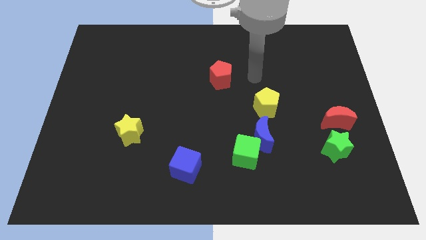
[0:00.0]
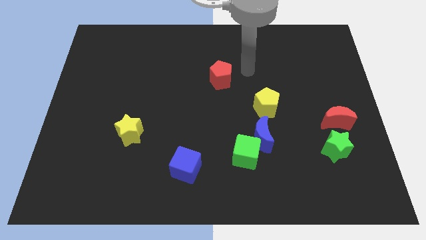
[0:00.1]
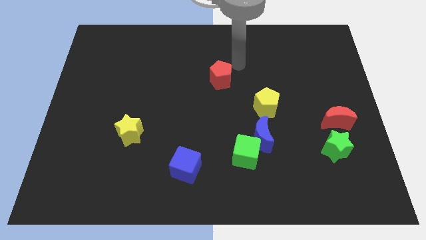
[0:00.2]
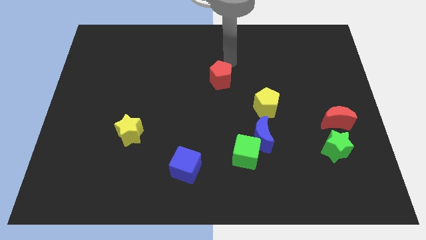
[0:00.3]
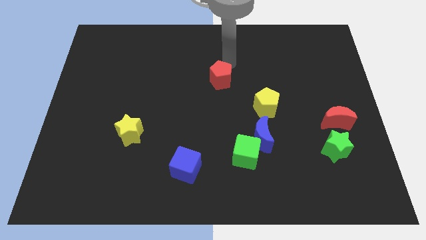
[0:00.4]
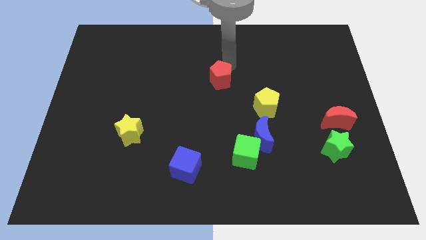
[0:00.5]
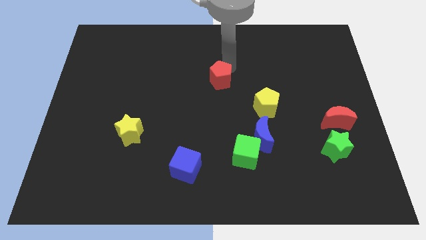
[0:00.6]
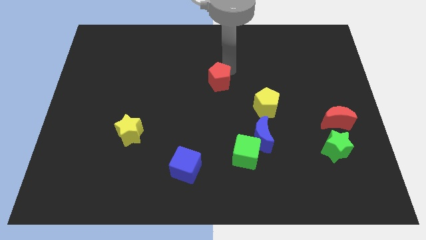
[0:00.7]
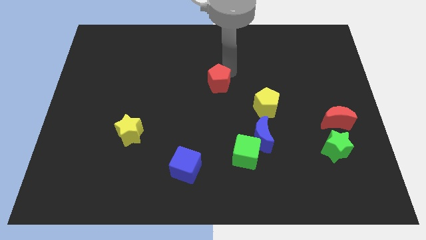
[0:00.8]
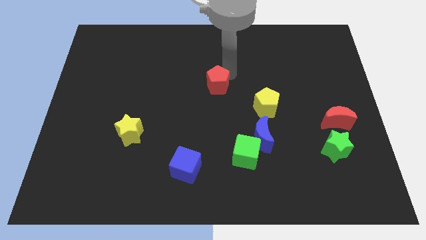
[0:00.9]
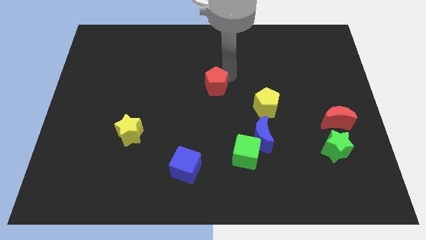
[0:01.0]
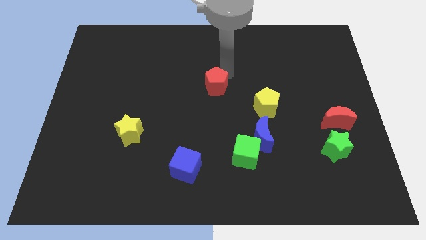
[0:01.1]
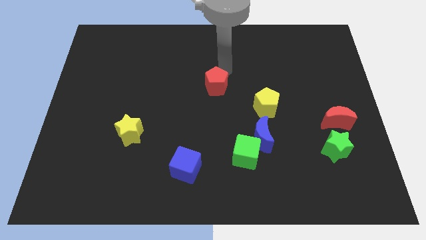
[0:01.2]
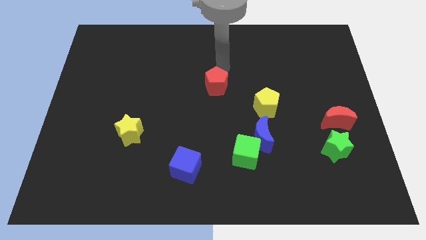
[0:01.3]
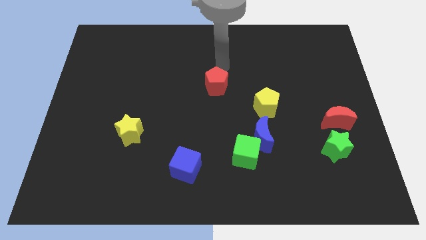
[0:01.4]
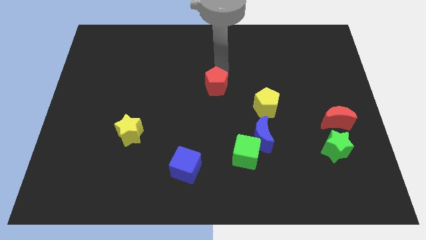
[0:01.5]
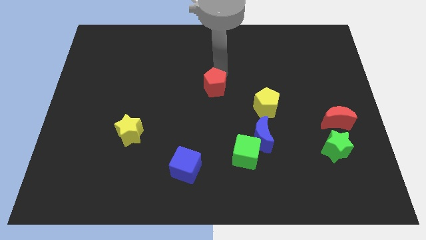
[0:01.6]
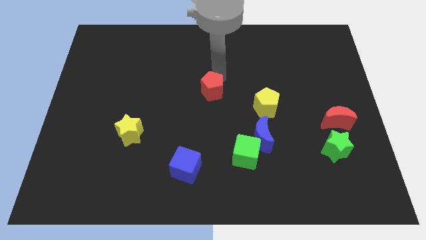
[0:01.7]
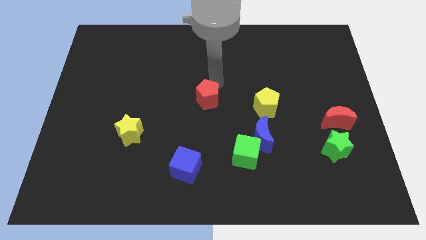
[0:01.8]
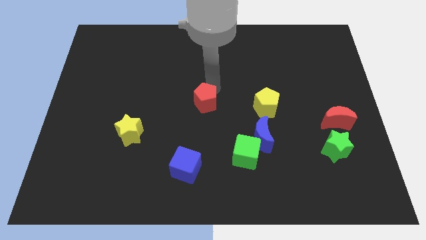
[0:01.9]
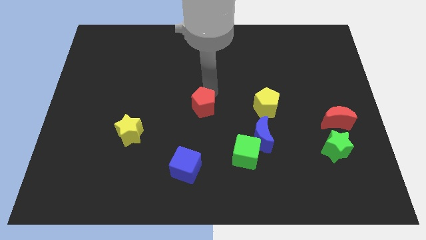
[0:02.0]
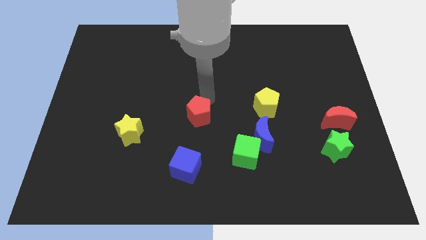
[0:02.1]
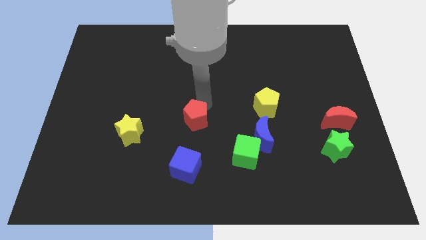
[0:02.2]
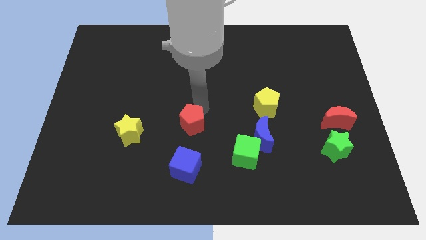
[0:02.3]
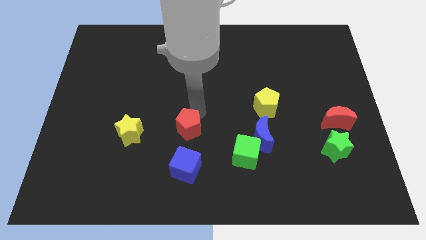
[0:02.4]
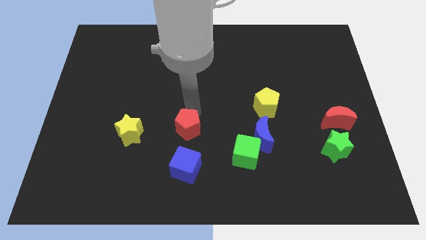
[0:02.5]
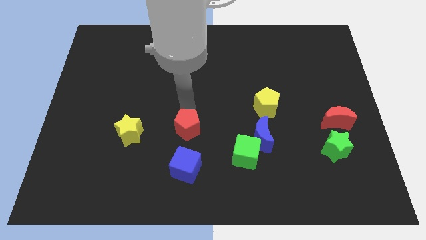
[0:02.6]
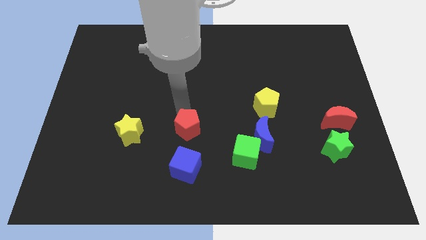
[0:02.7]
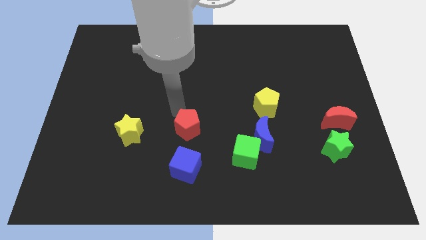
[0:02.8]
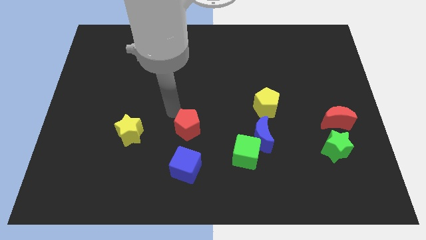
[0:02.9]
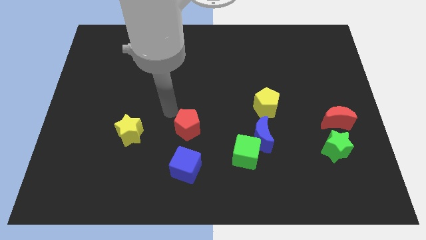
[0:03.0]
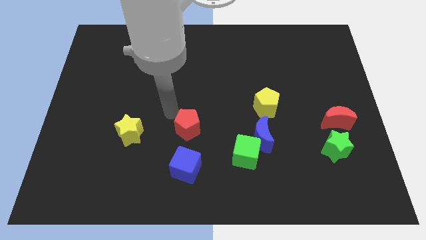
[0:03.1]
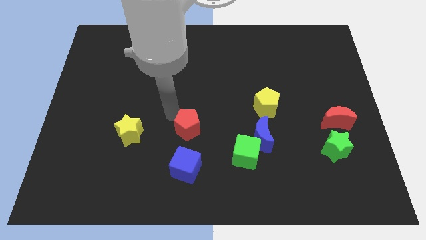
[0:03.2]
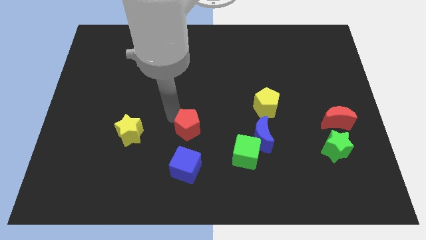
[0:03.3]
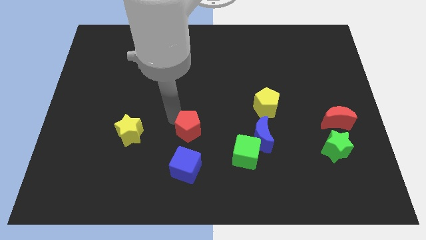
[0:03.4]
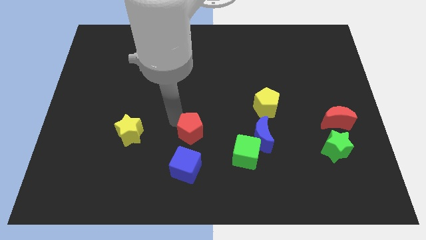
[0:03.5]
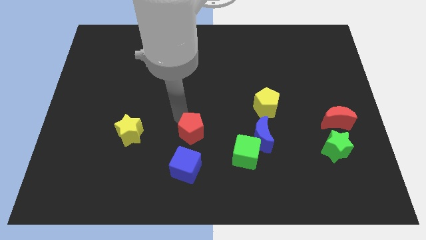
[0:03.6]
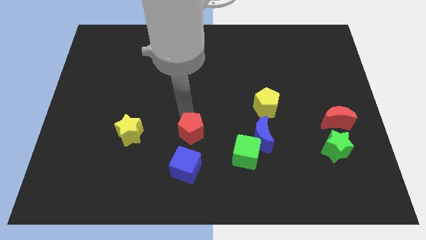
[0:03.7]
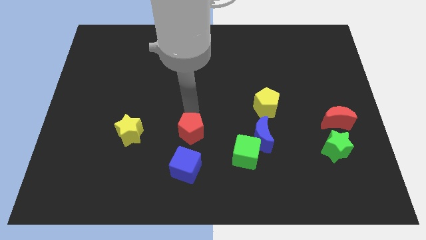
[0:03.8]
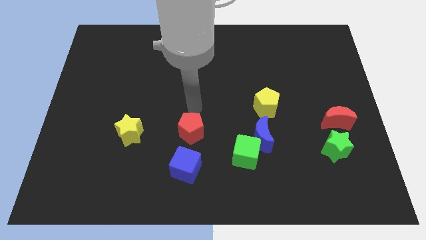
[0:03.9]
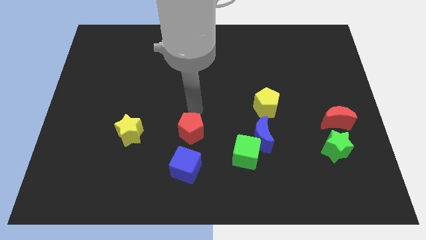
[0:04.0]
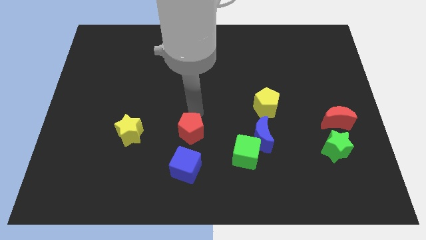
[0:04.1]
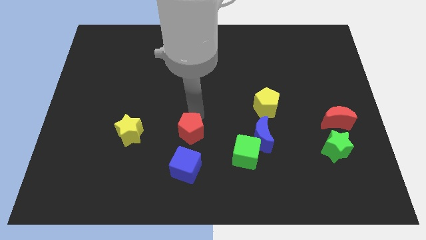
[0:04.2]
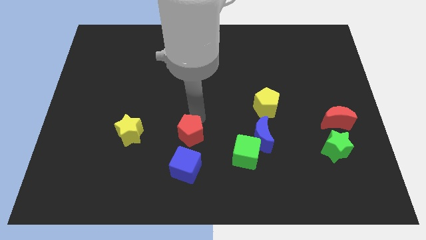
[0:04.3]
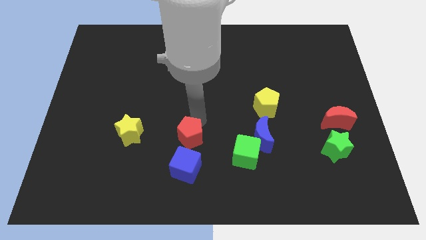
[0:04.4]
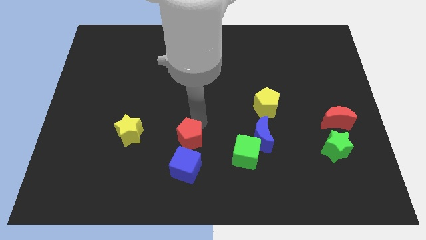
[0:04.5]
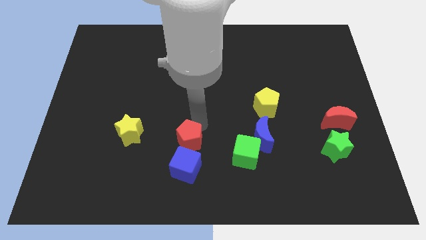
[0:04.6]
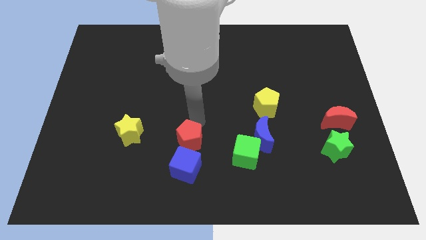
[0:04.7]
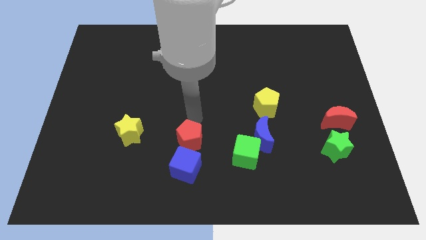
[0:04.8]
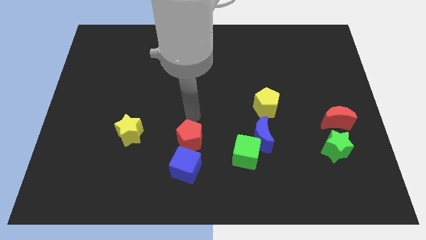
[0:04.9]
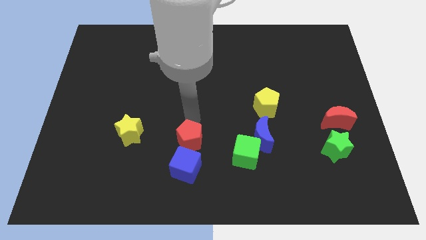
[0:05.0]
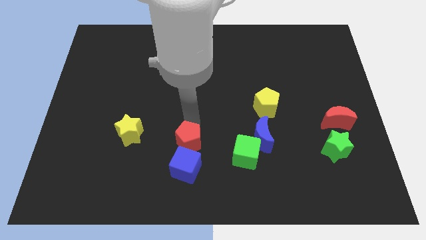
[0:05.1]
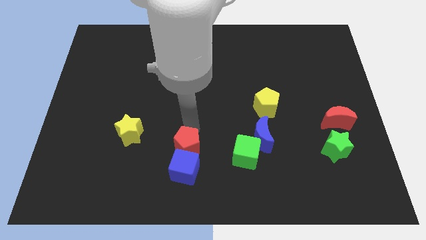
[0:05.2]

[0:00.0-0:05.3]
move the red pentagon towards the blue cube

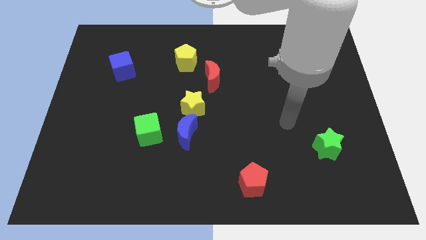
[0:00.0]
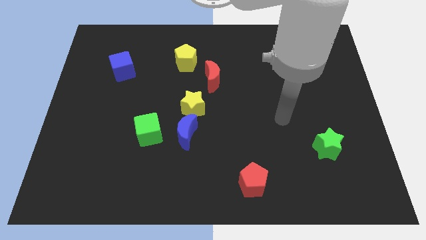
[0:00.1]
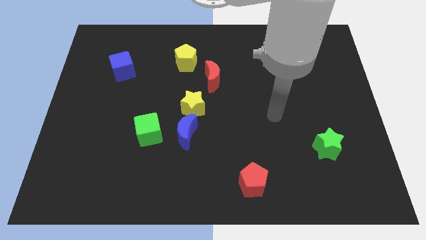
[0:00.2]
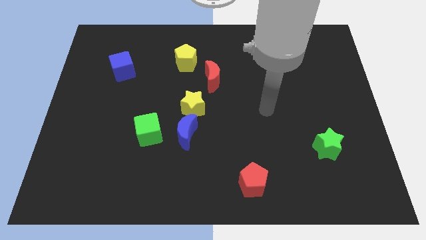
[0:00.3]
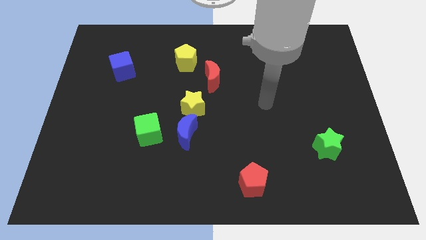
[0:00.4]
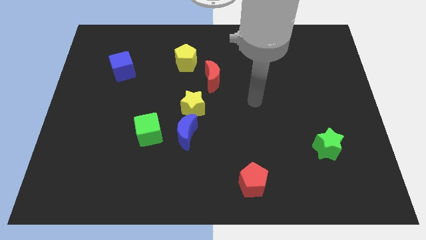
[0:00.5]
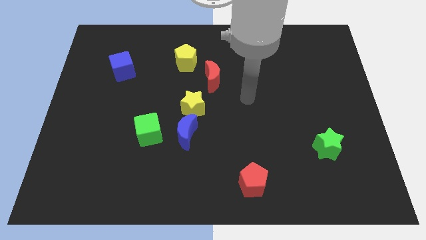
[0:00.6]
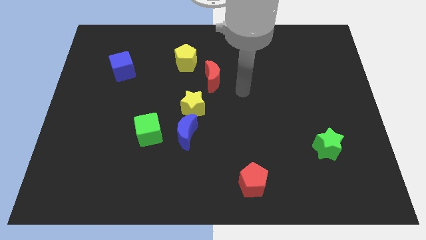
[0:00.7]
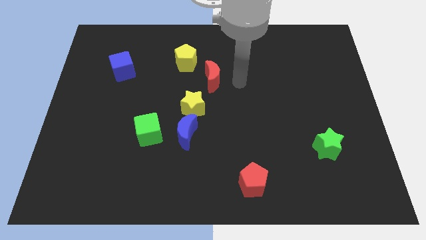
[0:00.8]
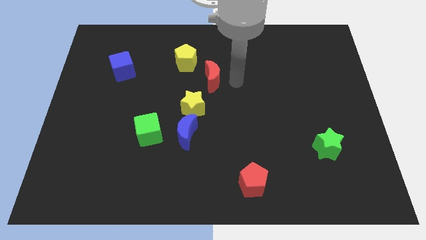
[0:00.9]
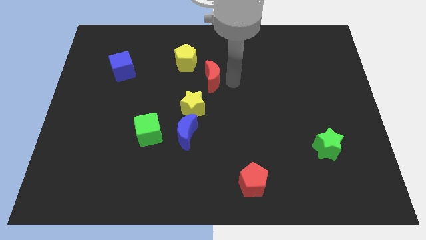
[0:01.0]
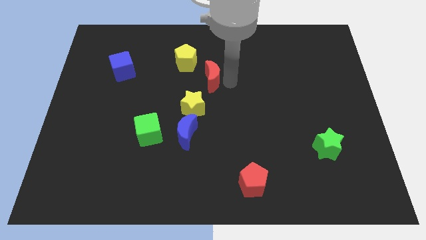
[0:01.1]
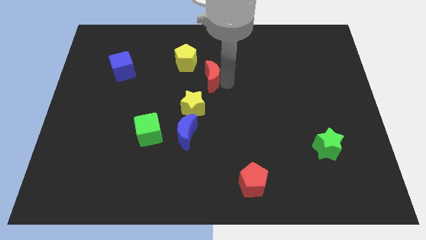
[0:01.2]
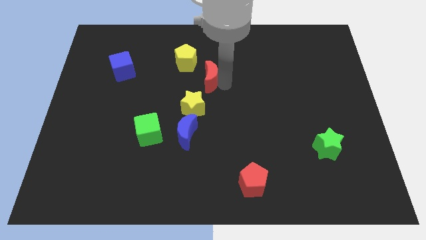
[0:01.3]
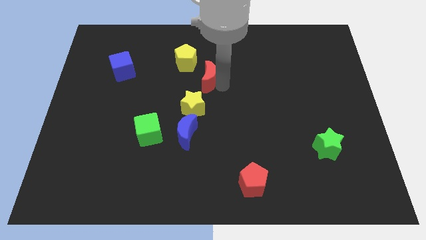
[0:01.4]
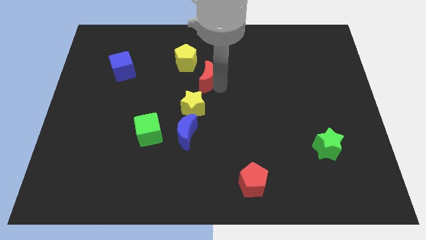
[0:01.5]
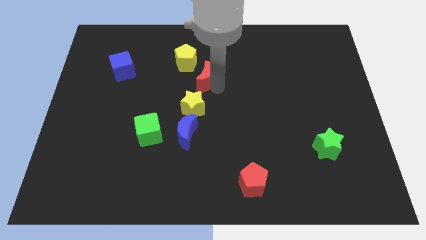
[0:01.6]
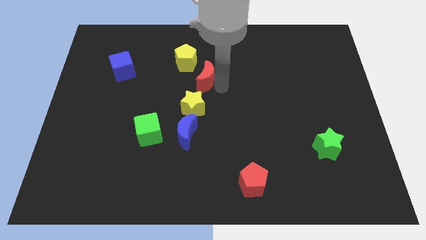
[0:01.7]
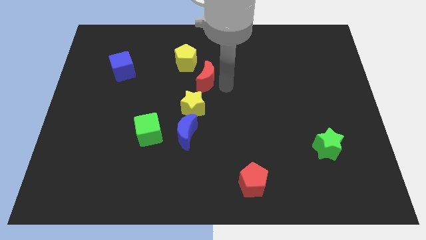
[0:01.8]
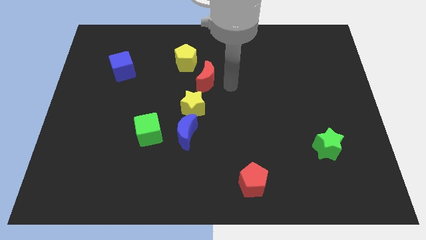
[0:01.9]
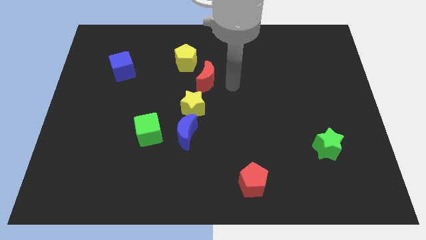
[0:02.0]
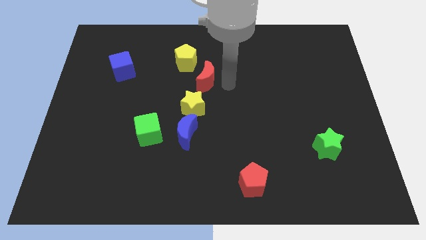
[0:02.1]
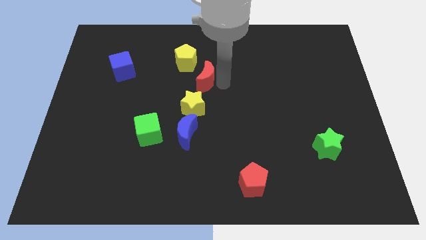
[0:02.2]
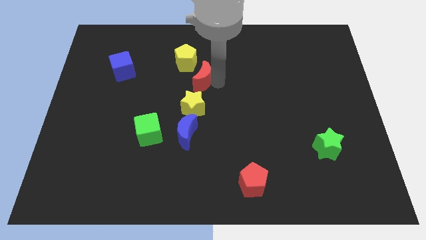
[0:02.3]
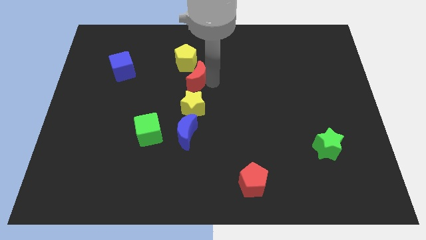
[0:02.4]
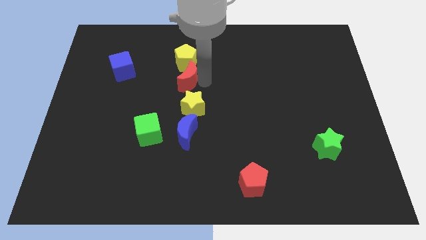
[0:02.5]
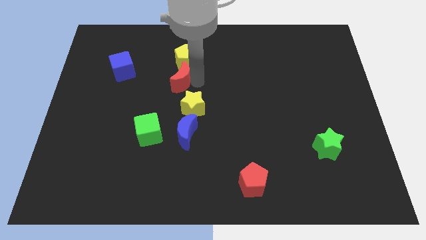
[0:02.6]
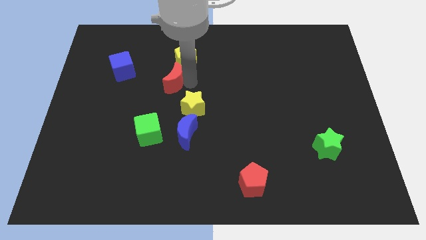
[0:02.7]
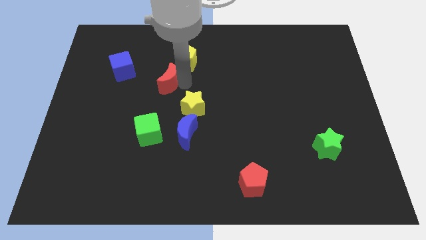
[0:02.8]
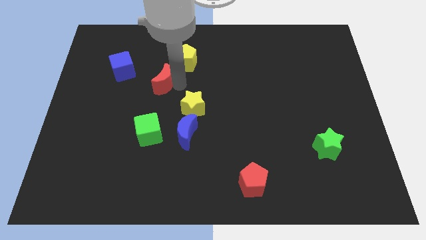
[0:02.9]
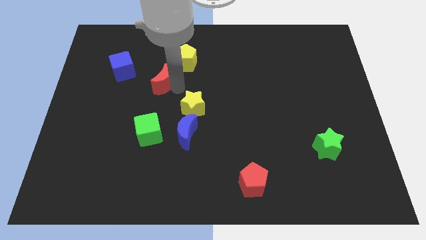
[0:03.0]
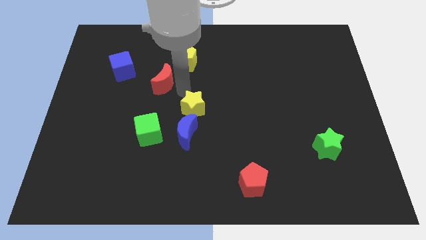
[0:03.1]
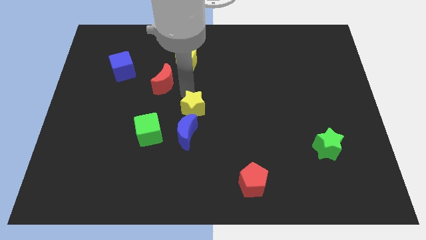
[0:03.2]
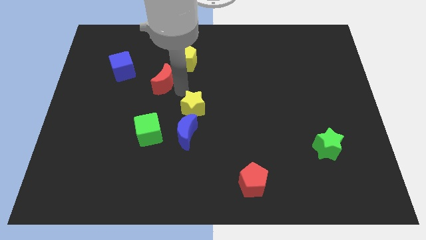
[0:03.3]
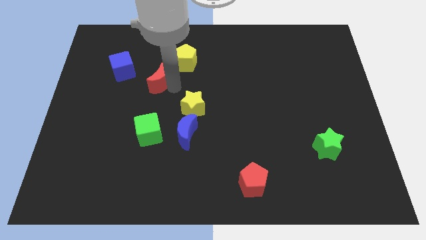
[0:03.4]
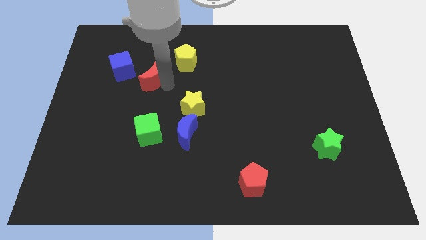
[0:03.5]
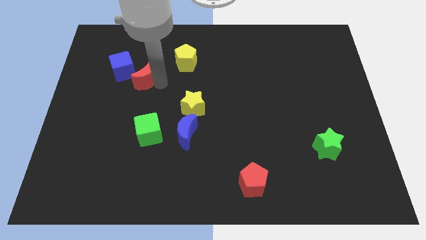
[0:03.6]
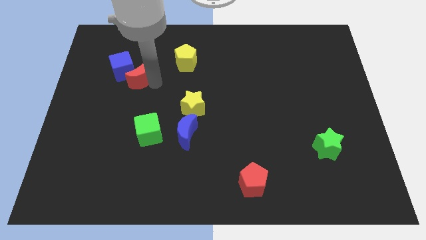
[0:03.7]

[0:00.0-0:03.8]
move the red moon next to the blue cube
